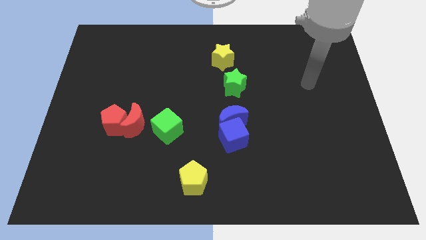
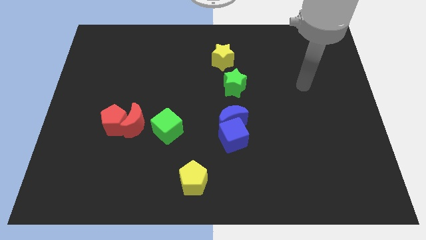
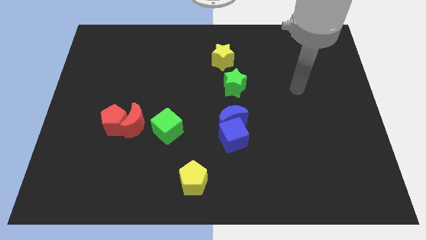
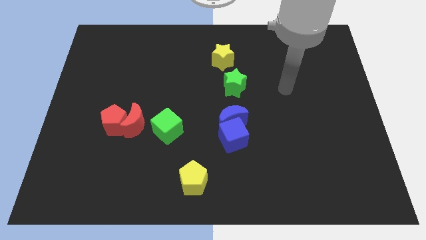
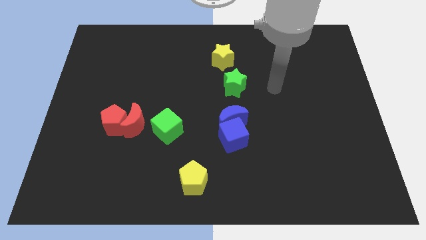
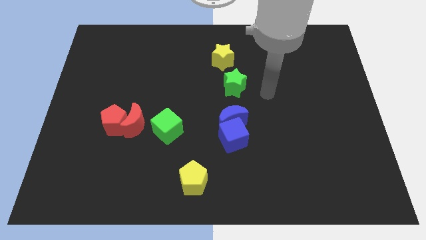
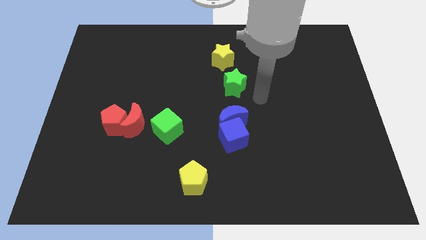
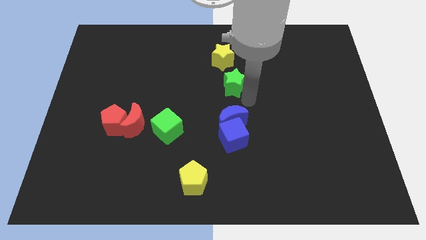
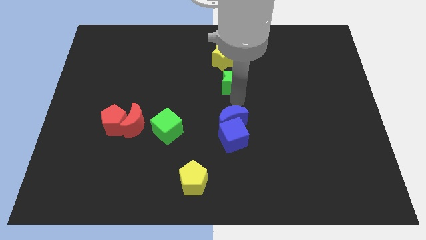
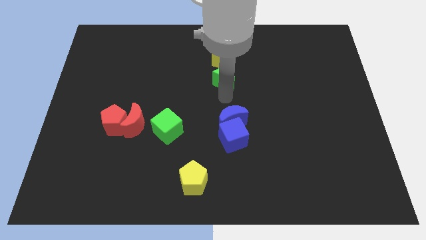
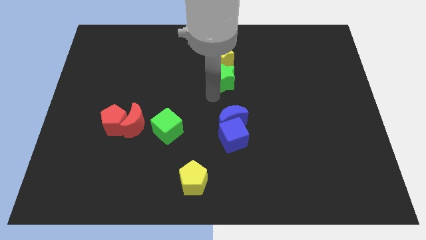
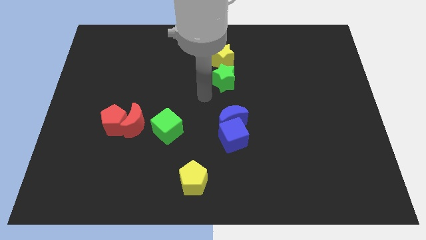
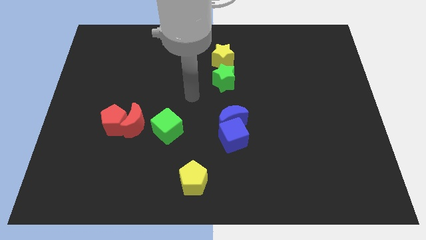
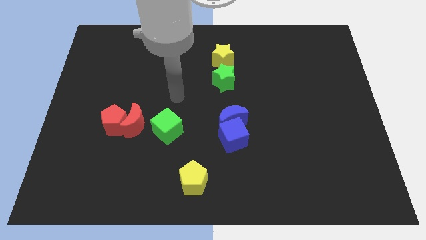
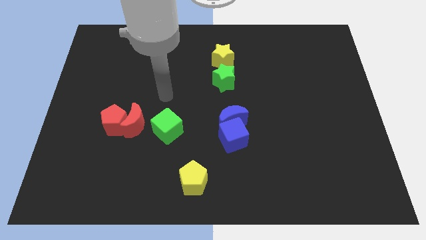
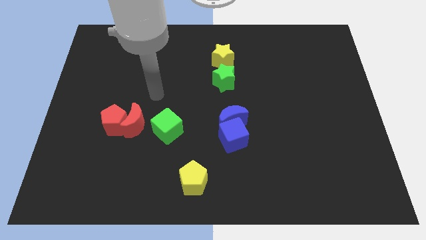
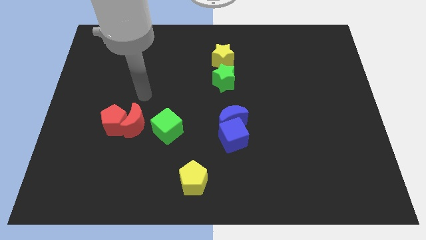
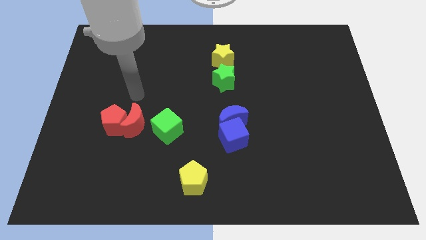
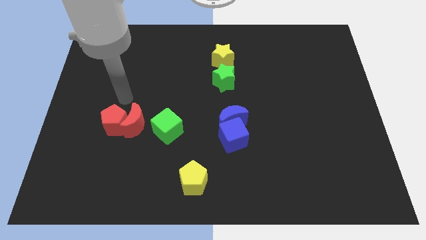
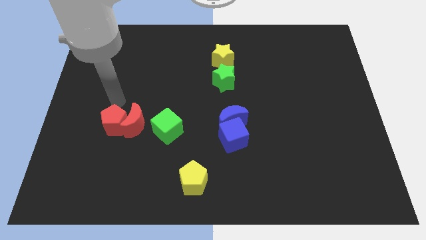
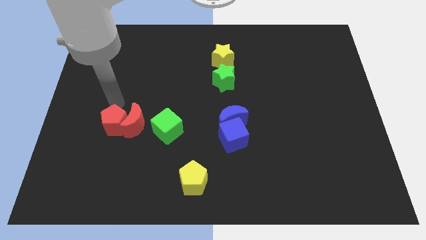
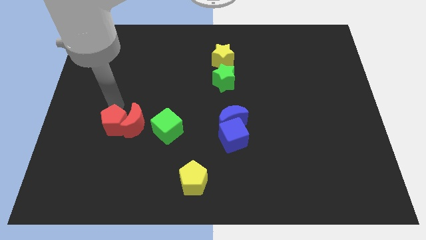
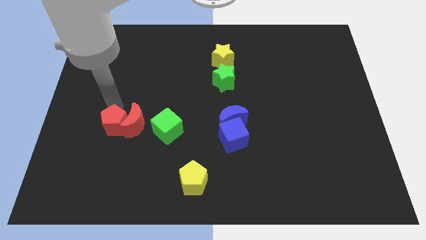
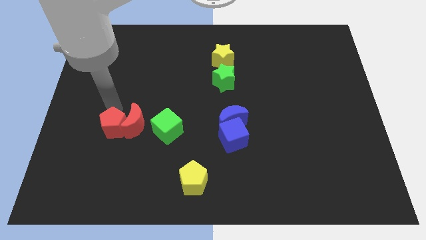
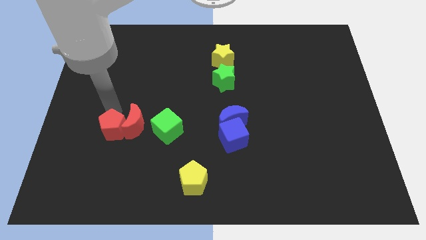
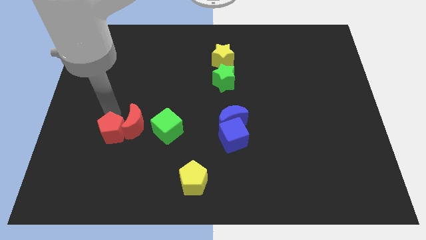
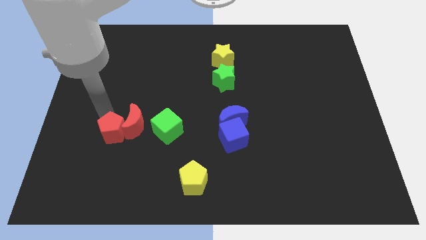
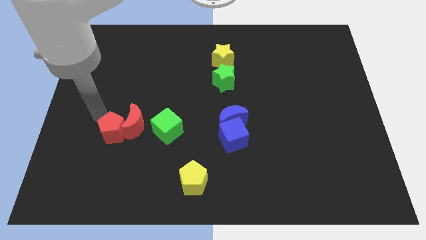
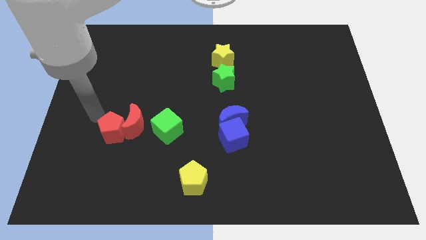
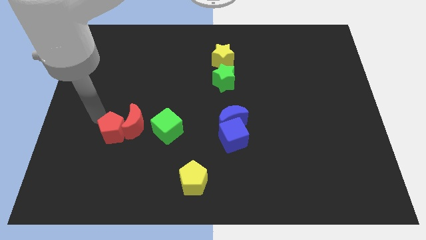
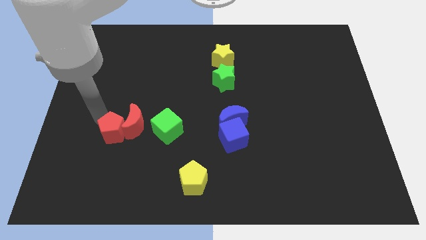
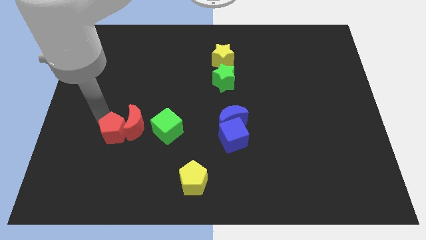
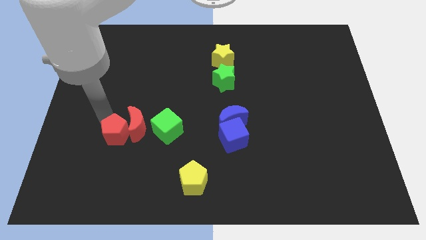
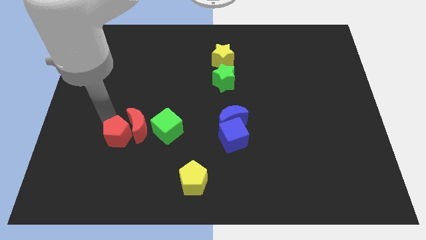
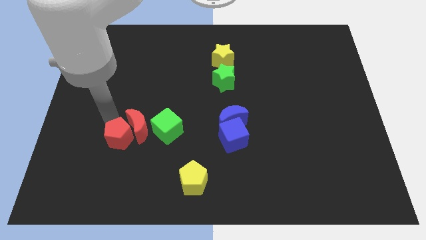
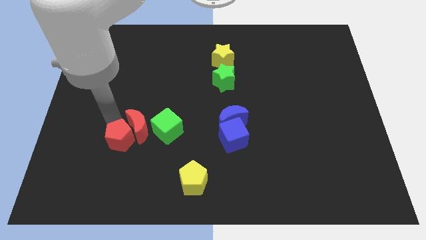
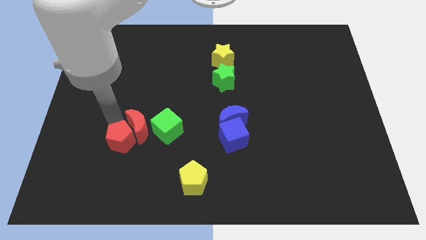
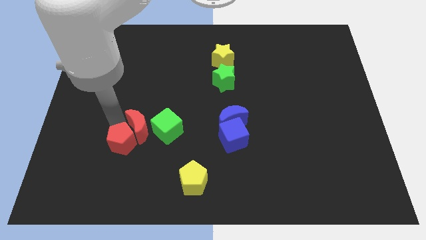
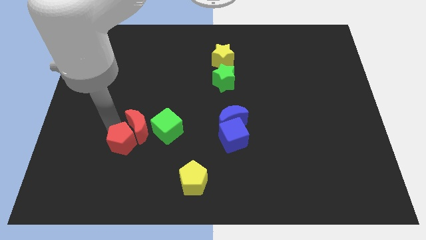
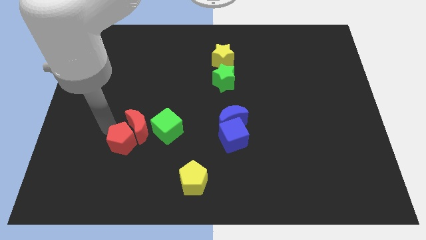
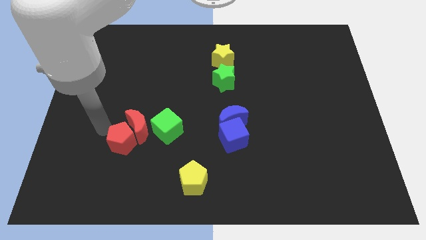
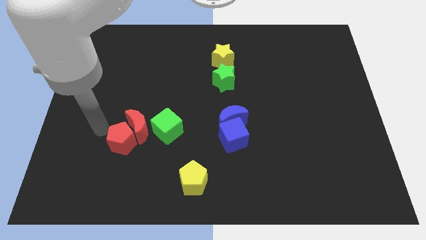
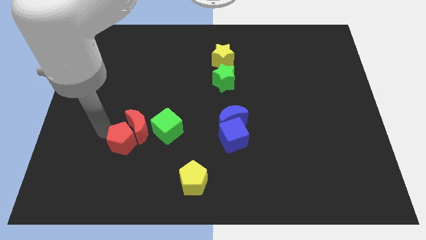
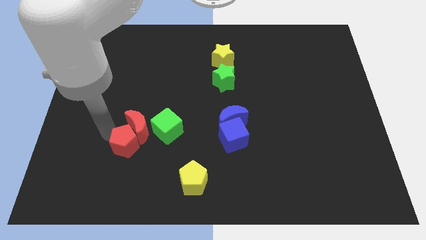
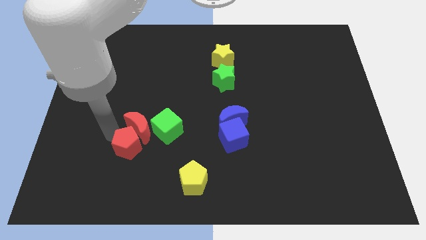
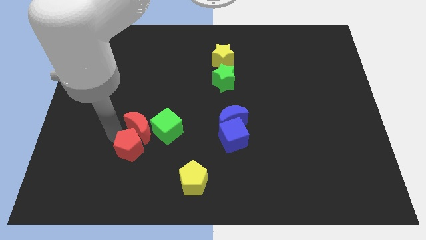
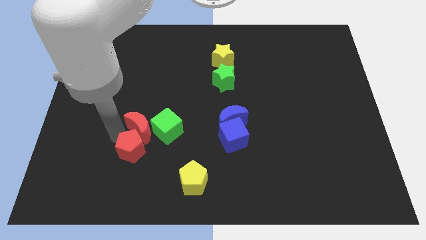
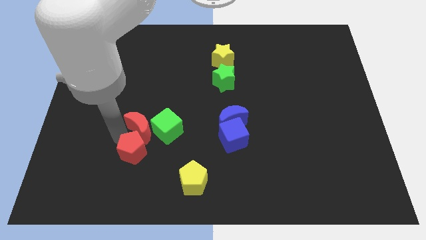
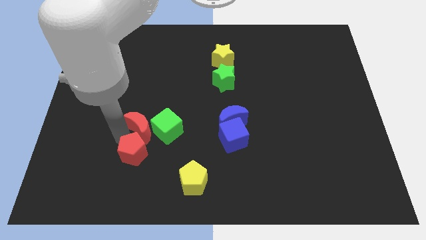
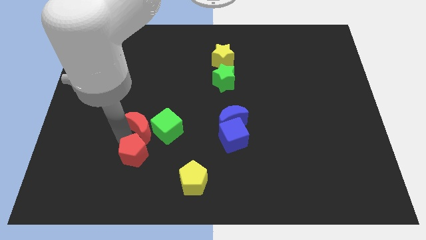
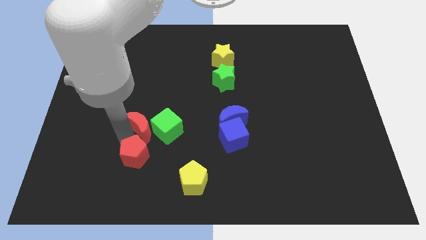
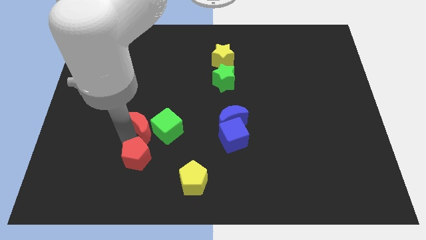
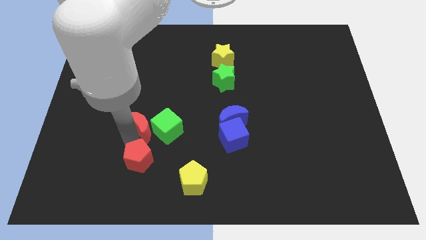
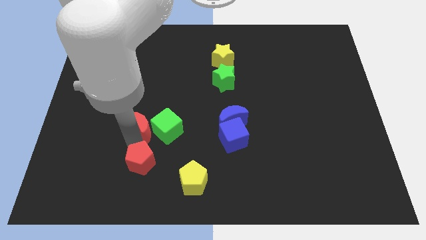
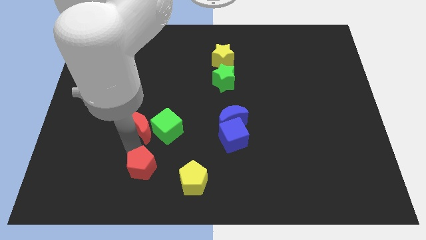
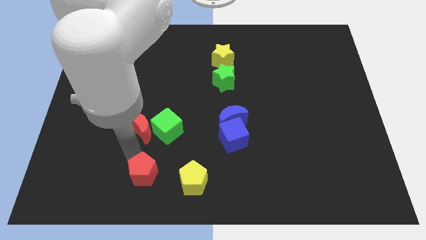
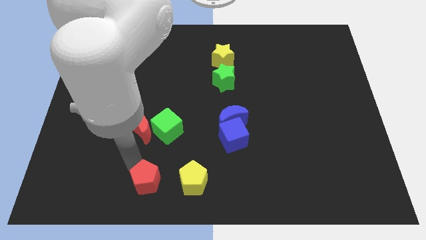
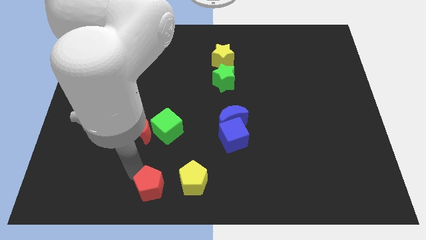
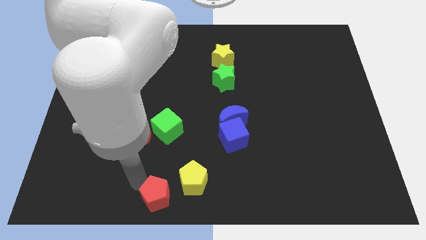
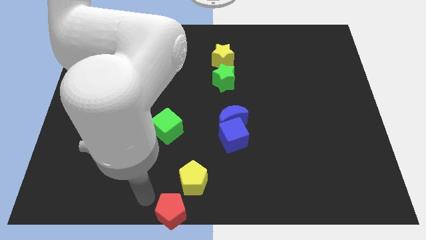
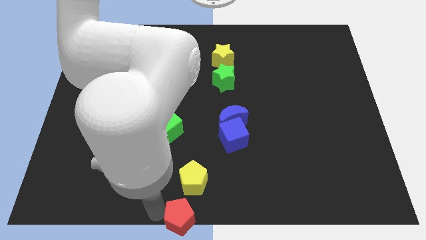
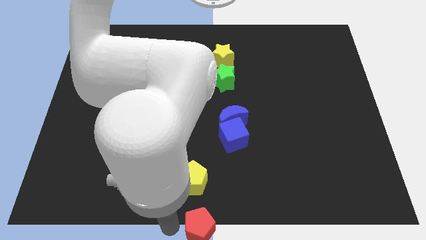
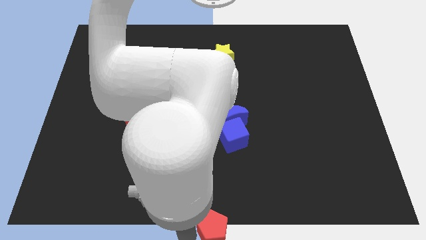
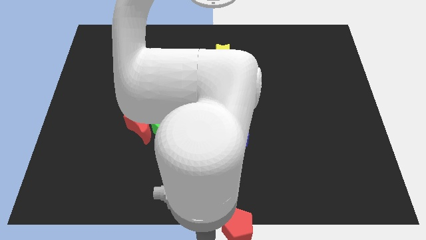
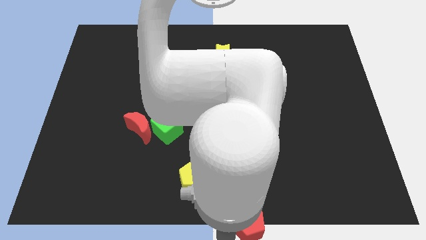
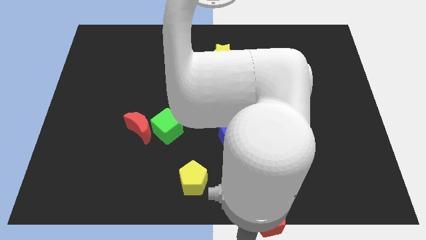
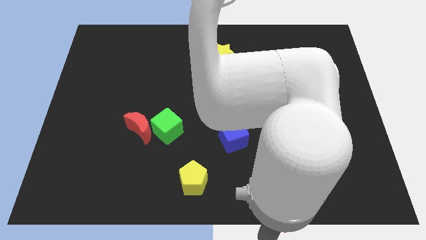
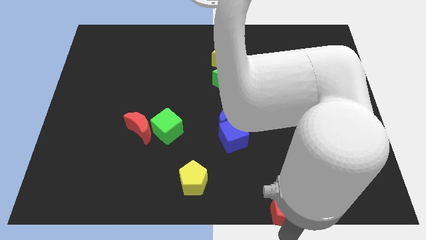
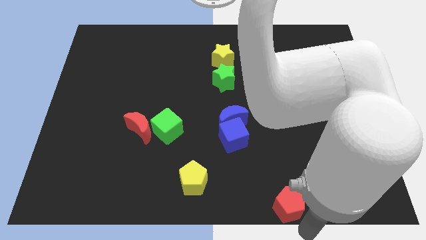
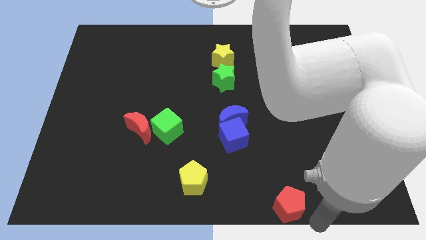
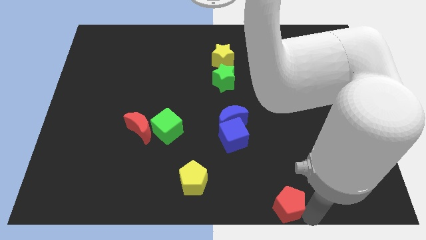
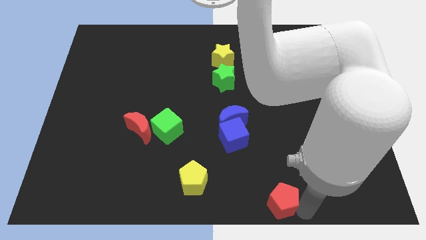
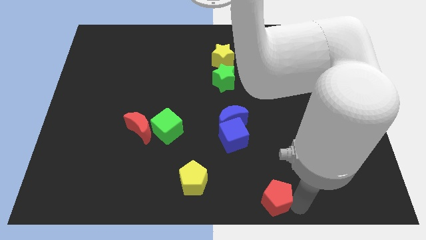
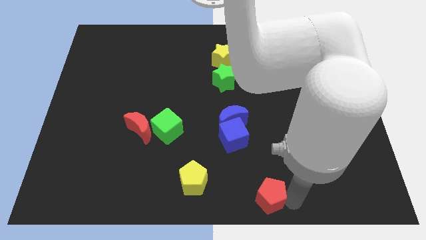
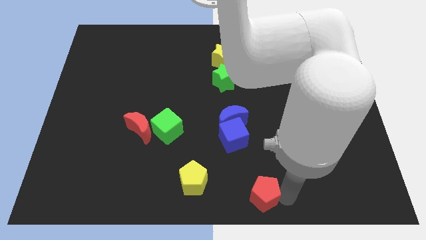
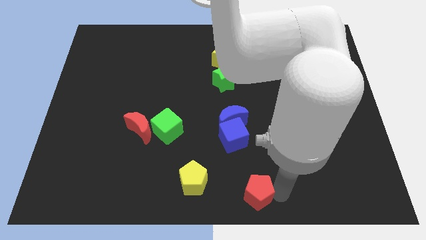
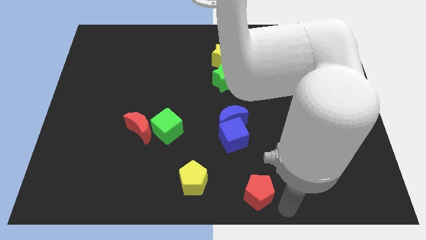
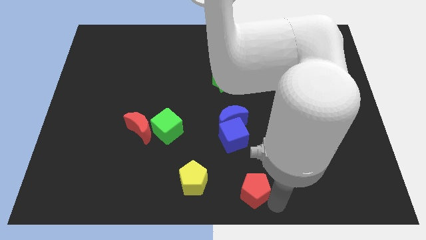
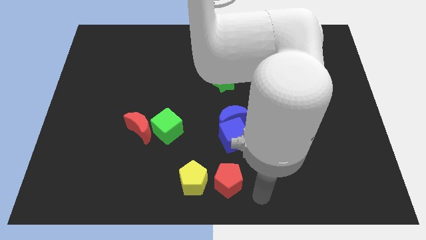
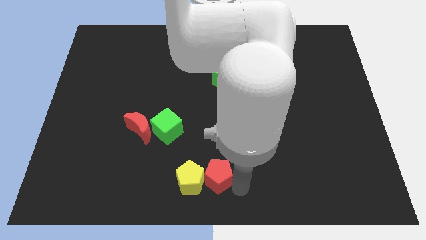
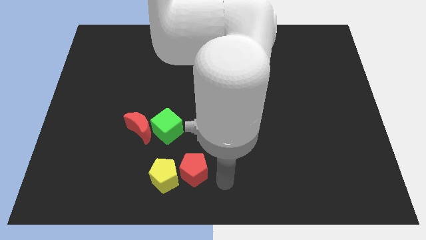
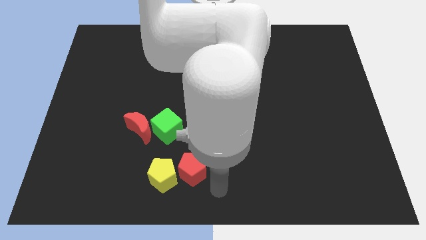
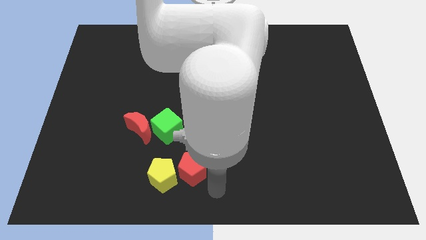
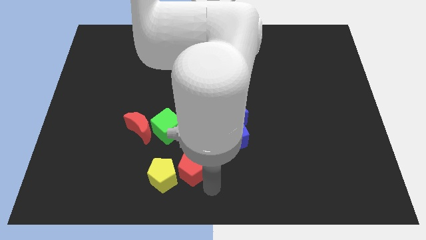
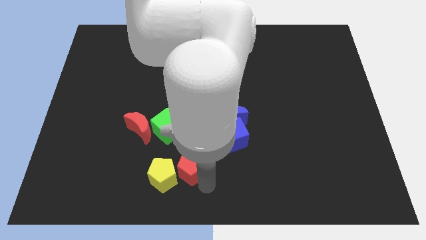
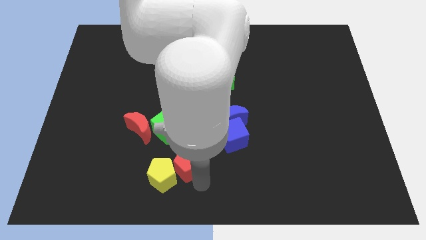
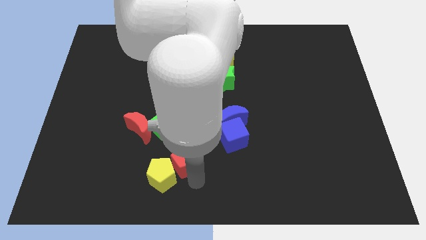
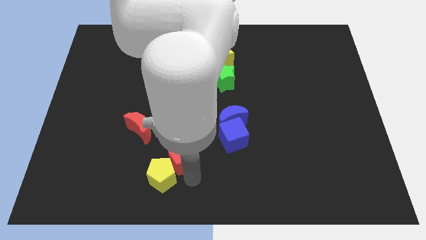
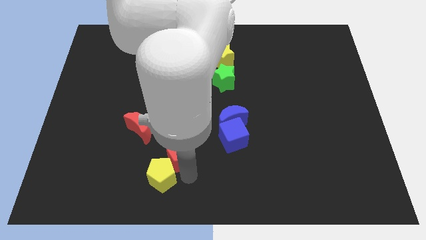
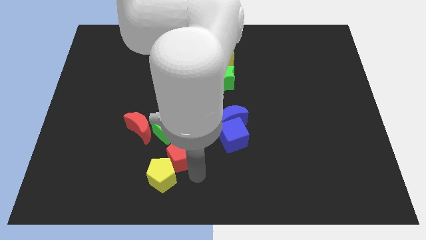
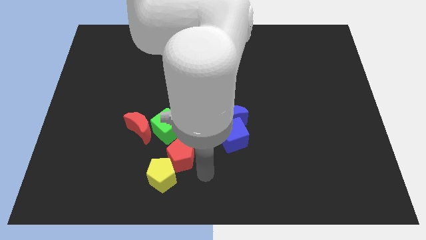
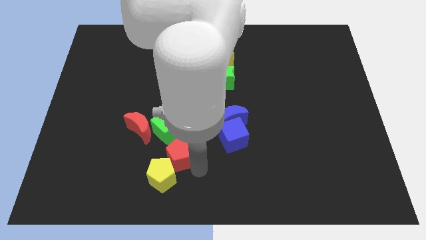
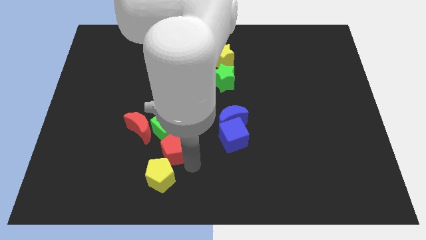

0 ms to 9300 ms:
slide the red pentagon next to the green cube
